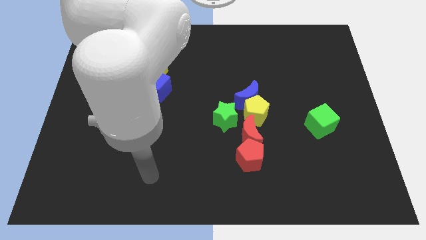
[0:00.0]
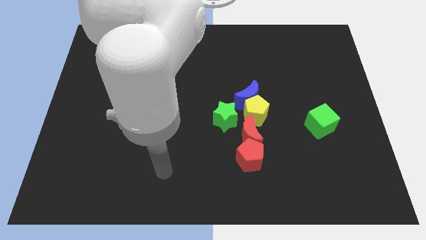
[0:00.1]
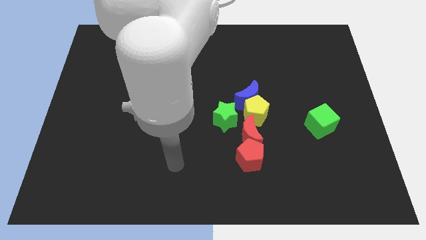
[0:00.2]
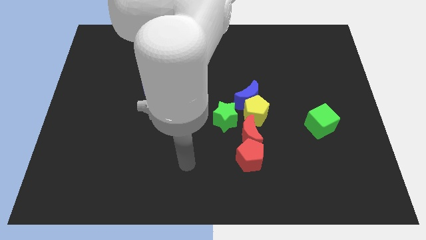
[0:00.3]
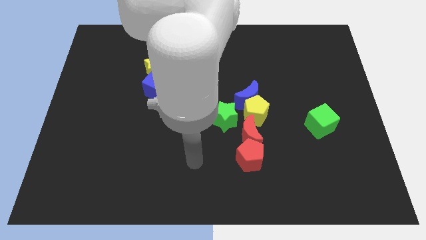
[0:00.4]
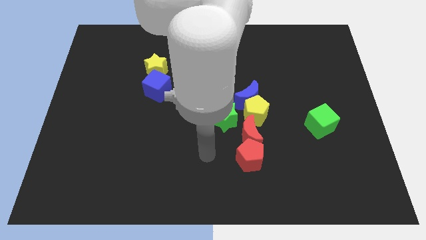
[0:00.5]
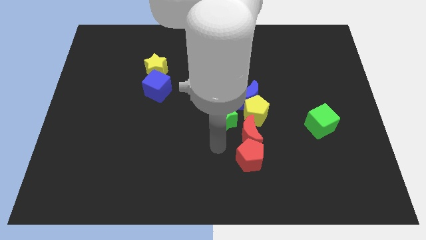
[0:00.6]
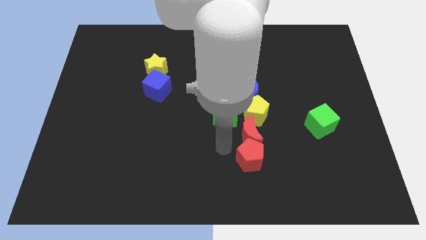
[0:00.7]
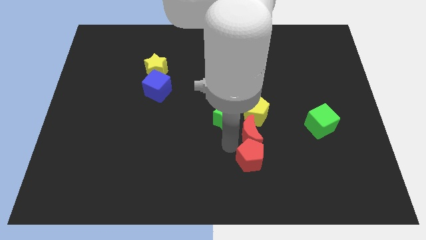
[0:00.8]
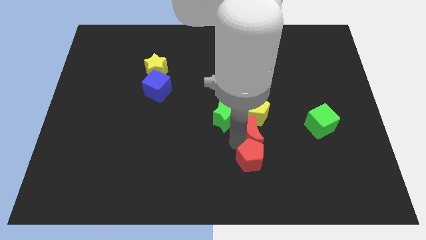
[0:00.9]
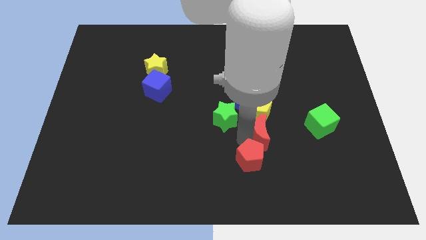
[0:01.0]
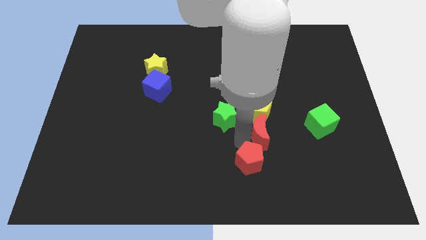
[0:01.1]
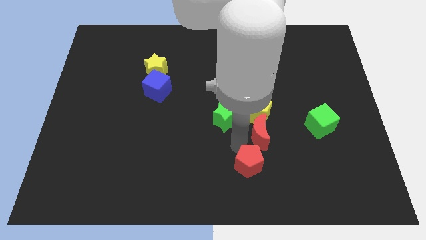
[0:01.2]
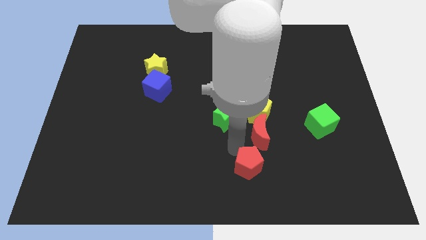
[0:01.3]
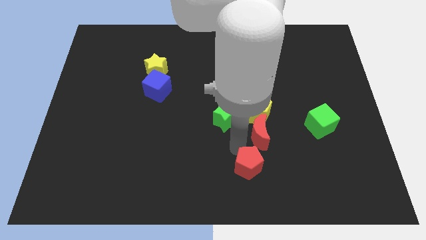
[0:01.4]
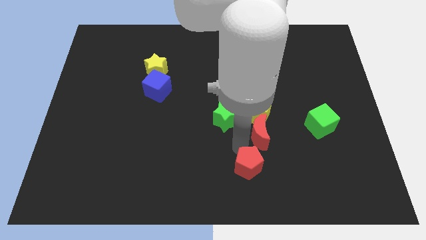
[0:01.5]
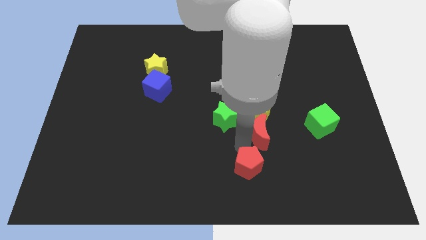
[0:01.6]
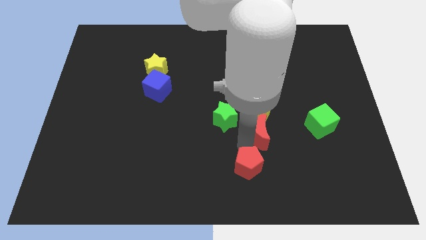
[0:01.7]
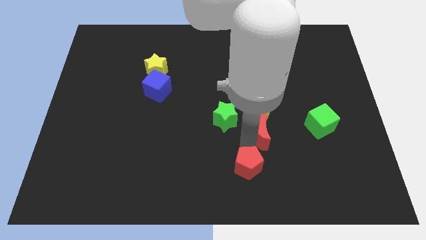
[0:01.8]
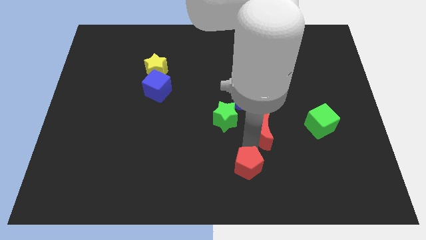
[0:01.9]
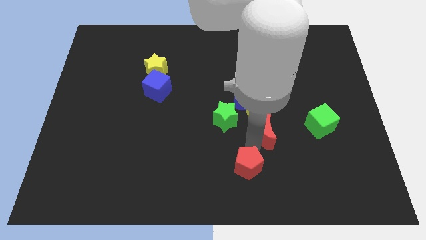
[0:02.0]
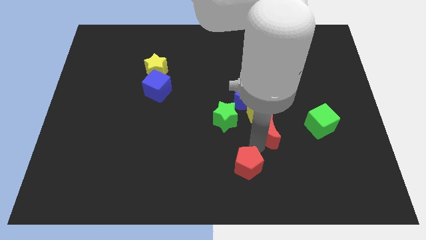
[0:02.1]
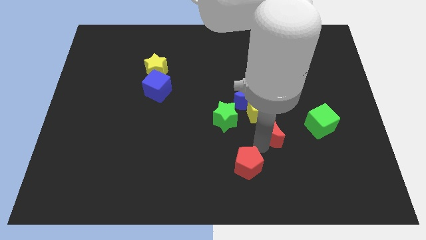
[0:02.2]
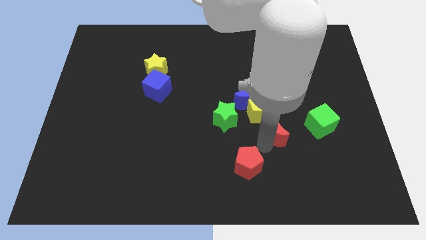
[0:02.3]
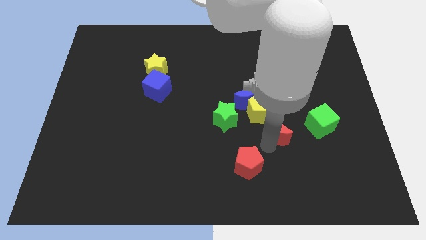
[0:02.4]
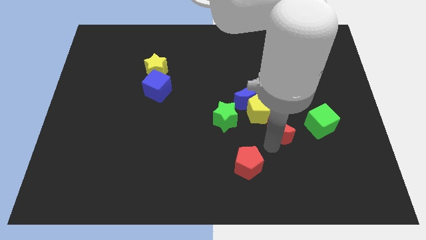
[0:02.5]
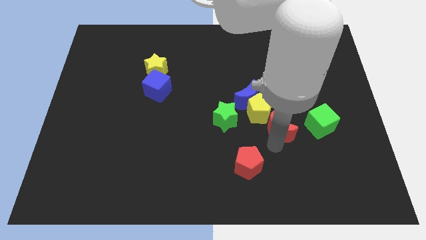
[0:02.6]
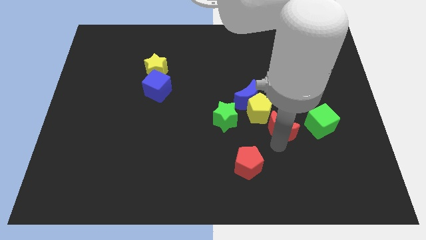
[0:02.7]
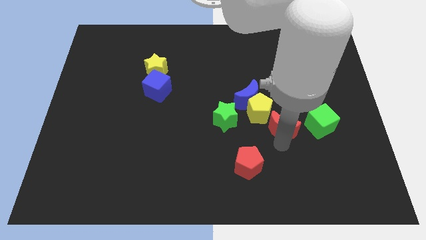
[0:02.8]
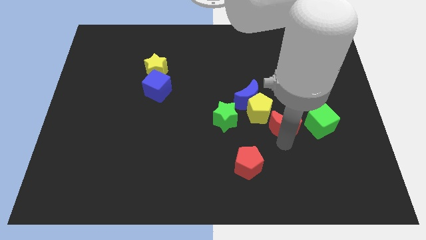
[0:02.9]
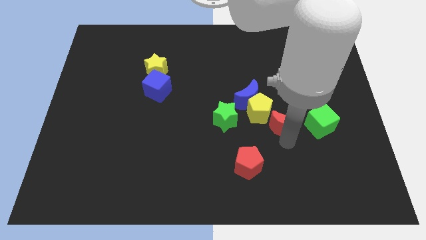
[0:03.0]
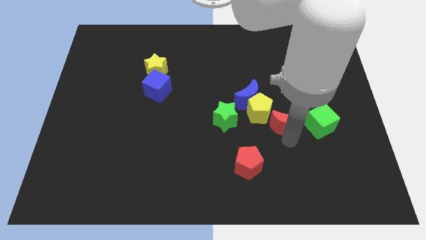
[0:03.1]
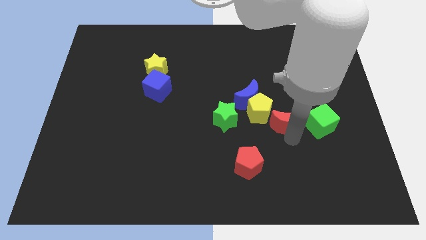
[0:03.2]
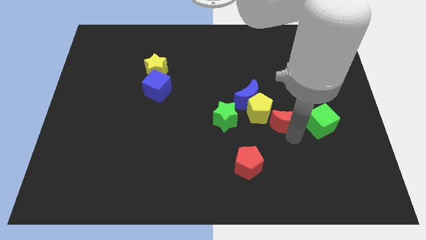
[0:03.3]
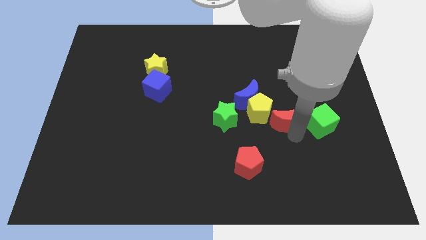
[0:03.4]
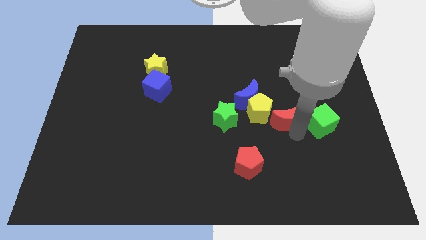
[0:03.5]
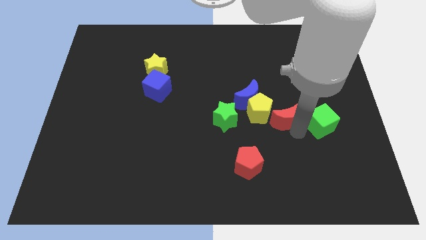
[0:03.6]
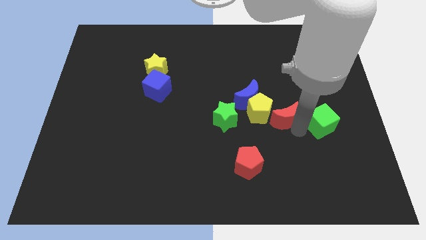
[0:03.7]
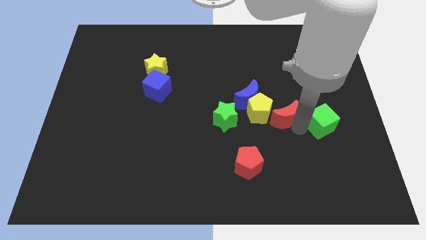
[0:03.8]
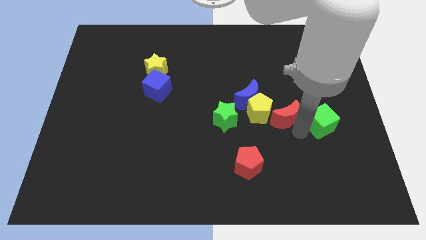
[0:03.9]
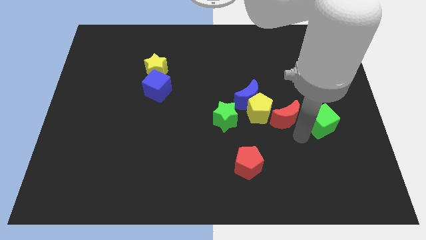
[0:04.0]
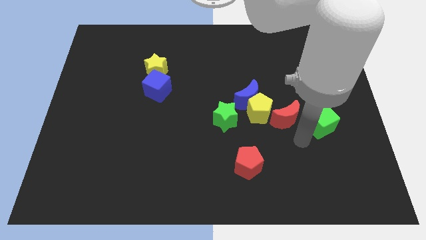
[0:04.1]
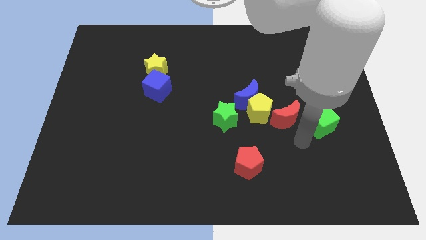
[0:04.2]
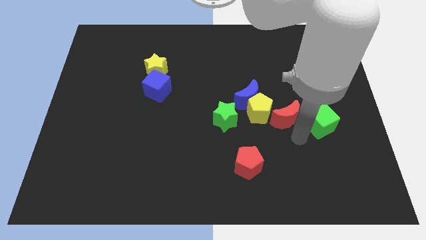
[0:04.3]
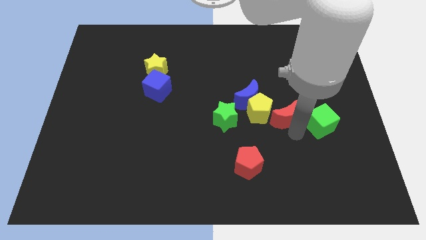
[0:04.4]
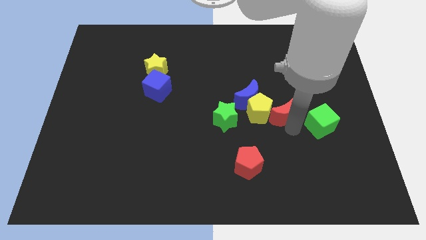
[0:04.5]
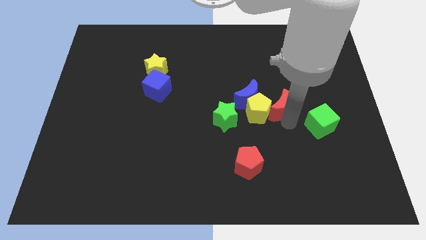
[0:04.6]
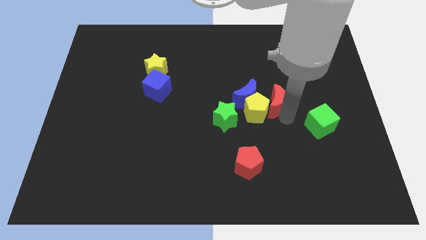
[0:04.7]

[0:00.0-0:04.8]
push the red moon up a little

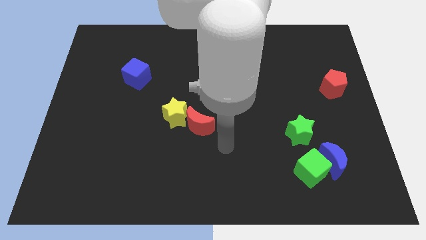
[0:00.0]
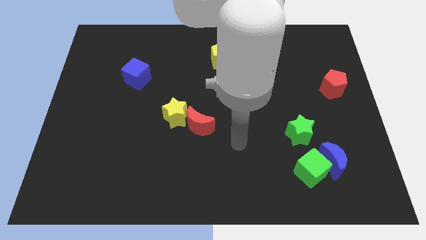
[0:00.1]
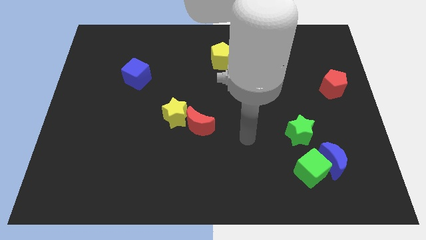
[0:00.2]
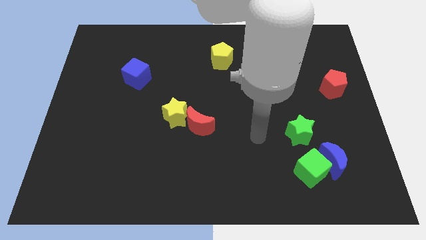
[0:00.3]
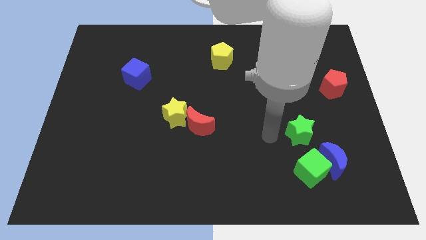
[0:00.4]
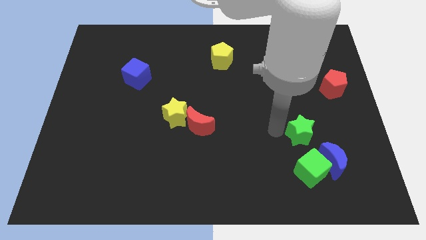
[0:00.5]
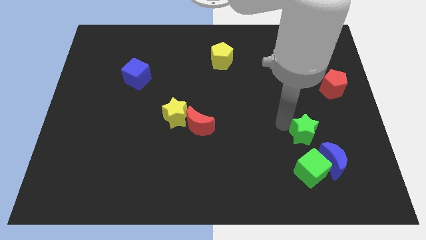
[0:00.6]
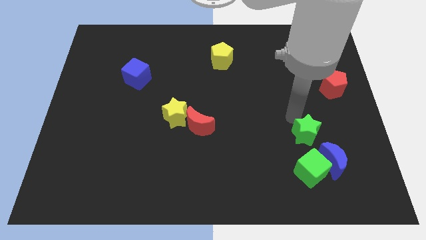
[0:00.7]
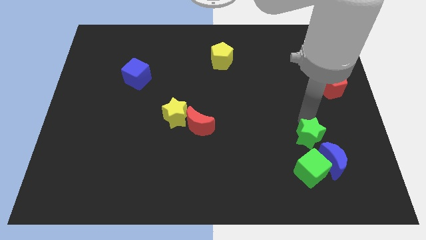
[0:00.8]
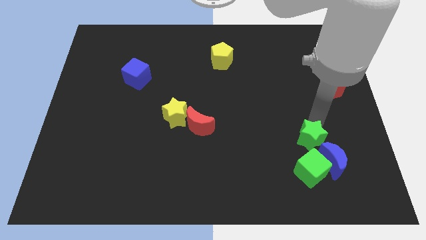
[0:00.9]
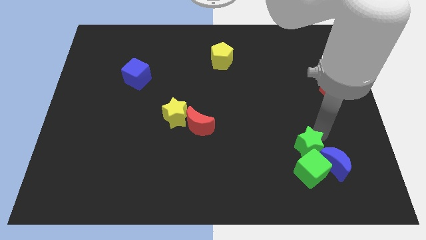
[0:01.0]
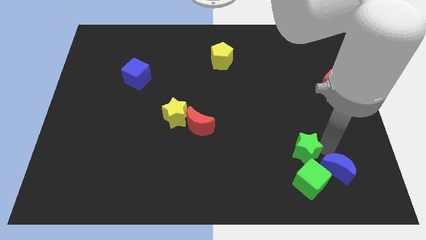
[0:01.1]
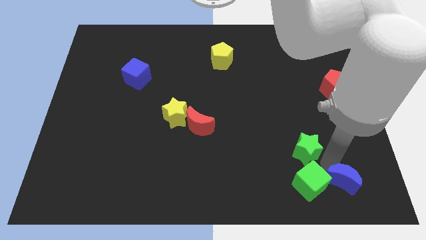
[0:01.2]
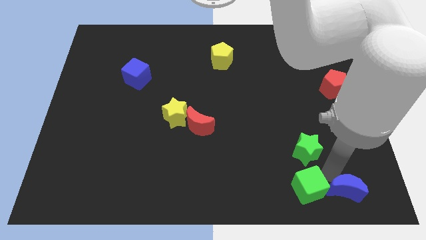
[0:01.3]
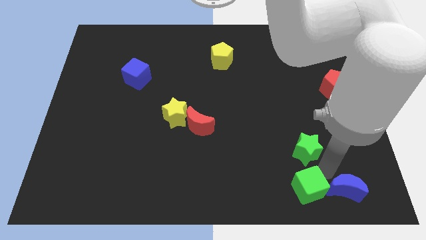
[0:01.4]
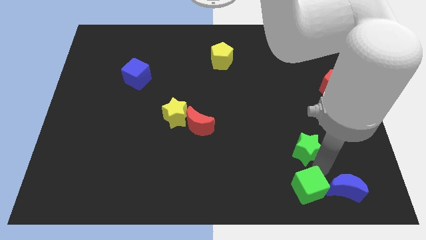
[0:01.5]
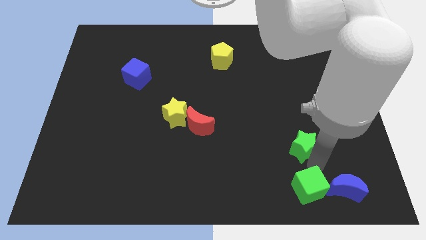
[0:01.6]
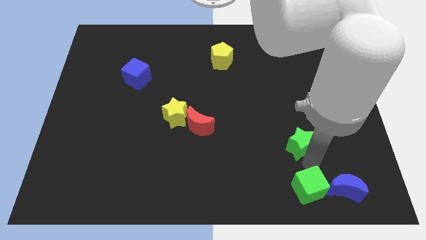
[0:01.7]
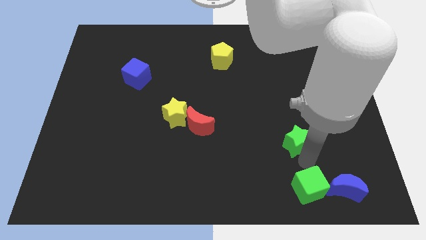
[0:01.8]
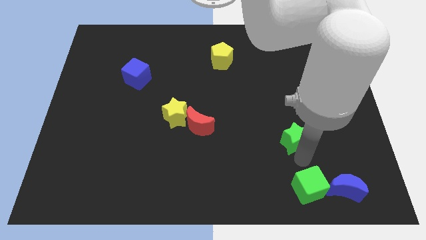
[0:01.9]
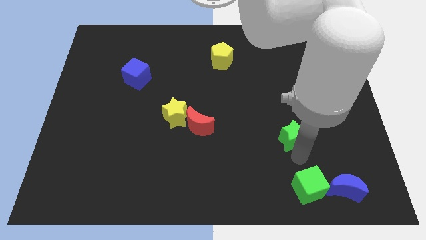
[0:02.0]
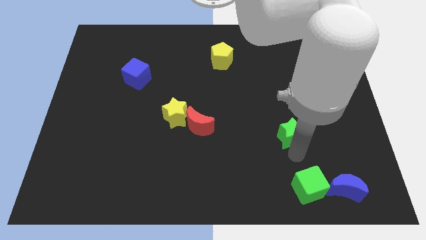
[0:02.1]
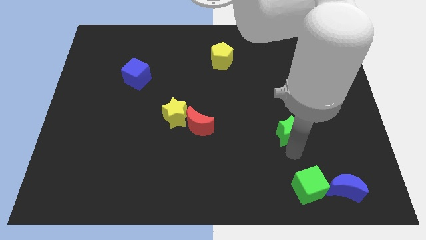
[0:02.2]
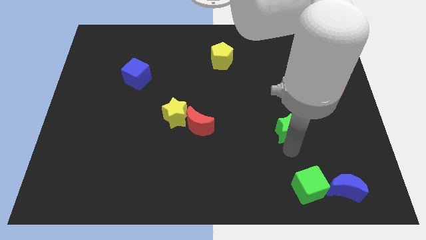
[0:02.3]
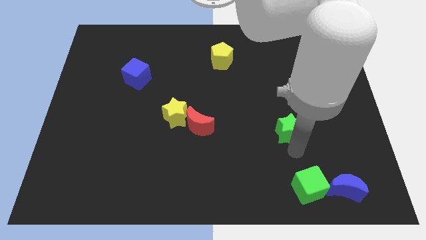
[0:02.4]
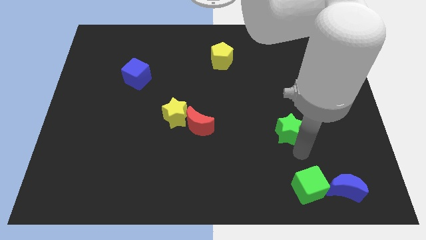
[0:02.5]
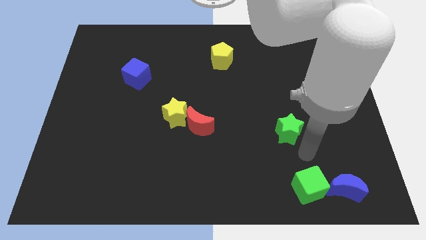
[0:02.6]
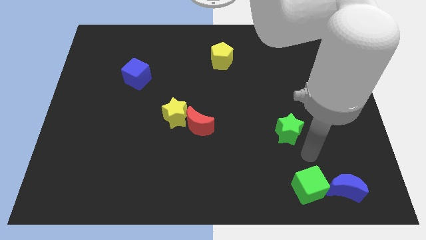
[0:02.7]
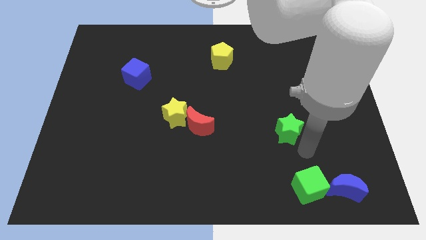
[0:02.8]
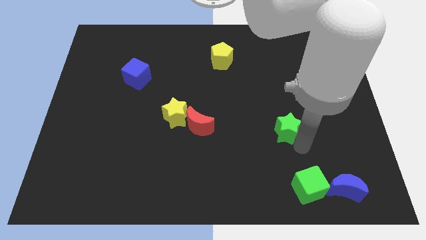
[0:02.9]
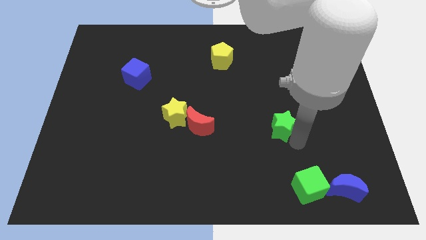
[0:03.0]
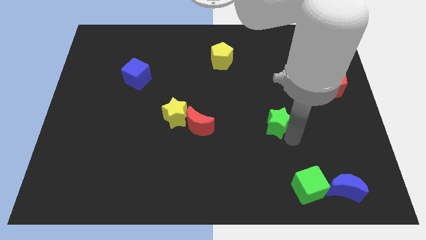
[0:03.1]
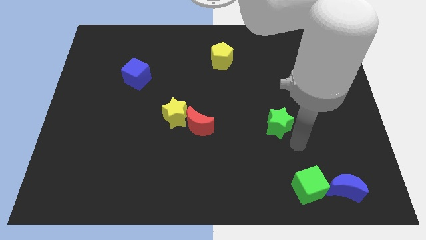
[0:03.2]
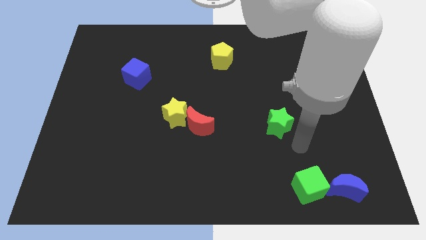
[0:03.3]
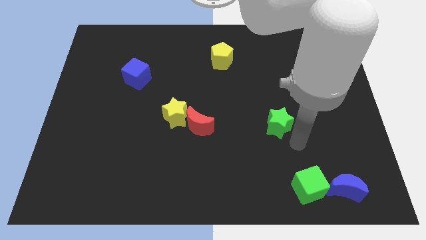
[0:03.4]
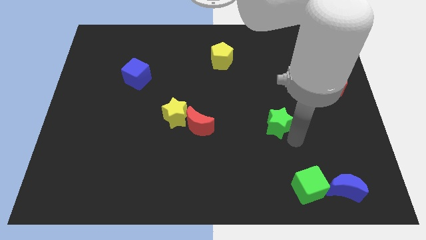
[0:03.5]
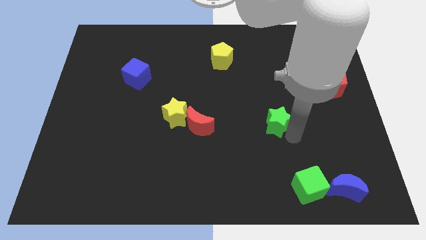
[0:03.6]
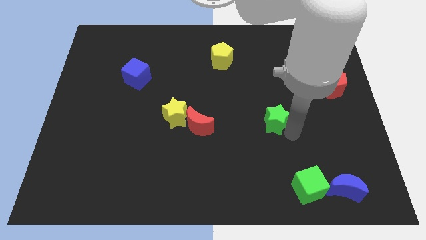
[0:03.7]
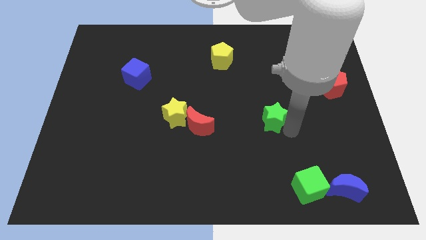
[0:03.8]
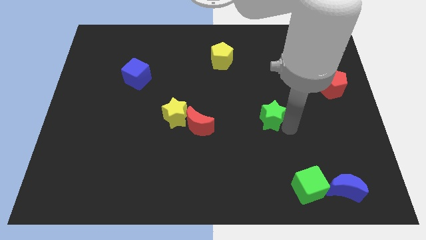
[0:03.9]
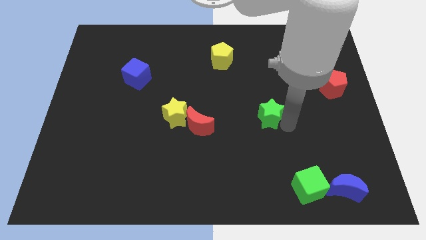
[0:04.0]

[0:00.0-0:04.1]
slide the green star somewhat upwards and left
